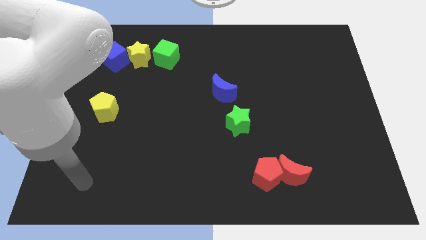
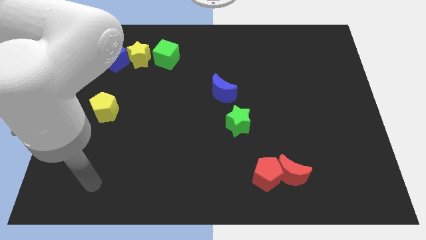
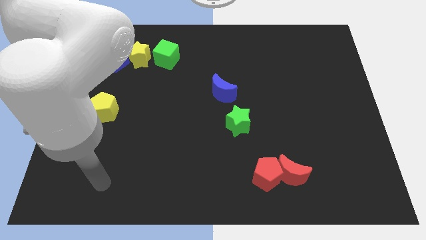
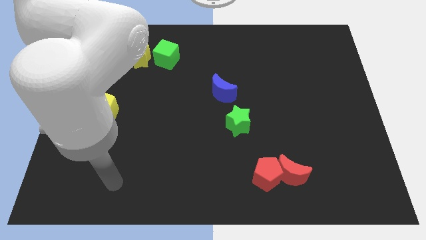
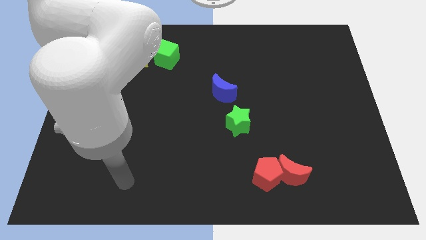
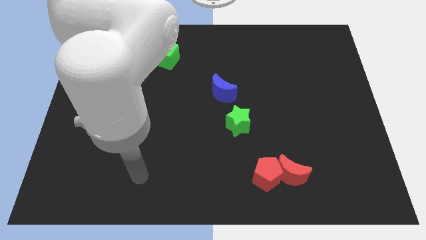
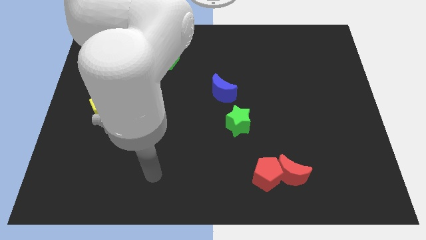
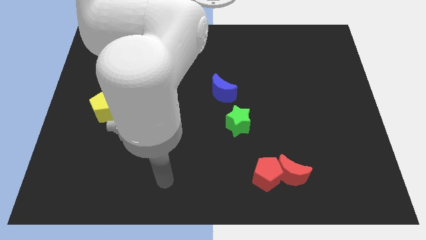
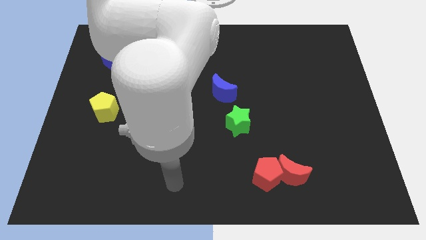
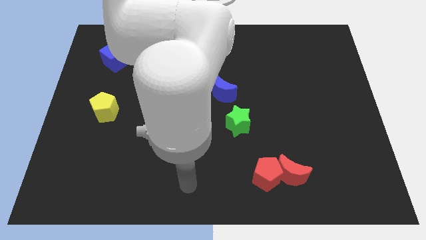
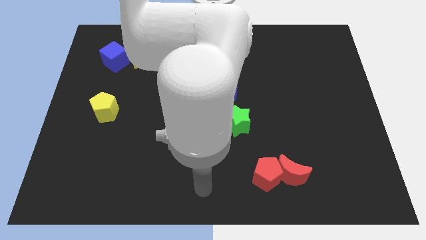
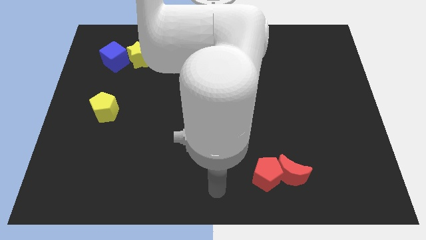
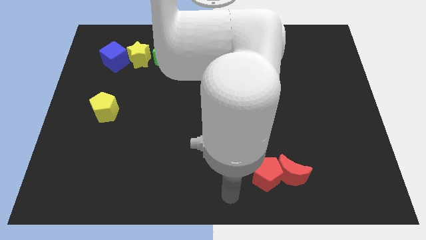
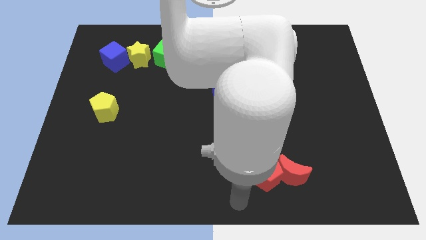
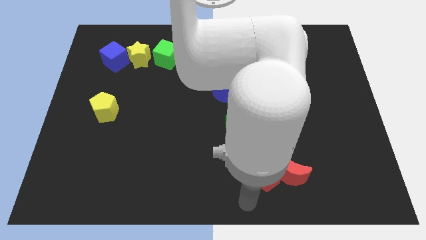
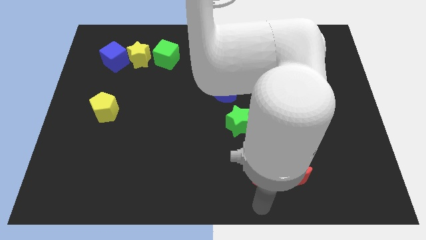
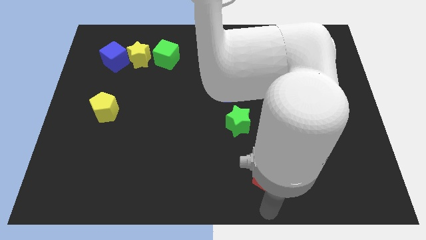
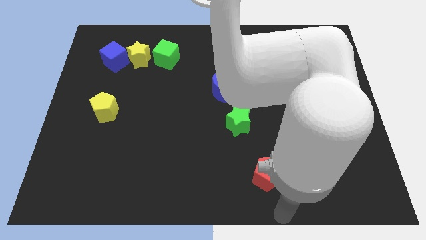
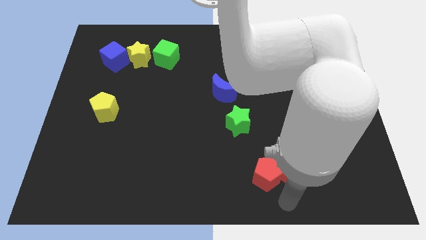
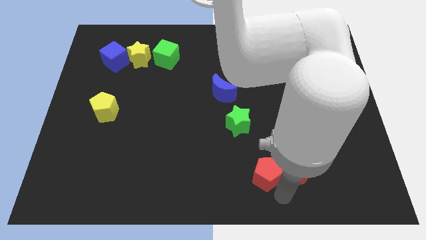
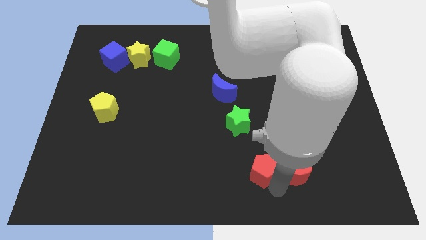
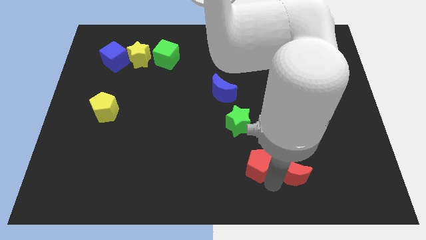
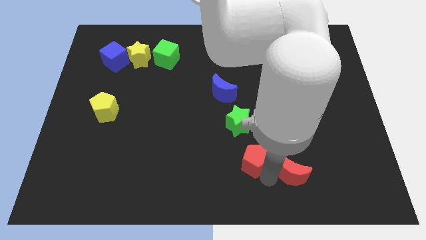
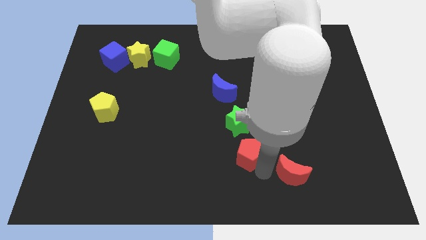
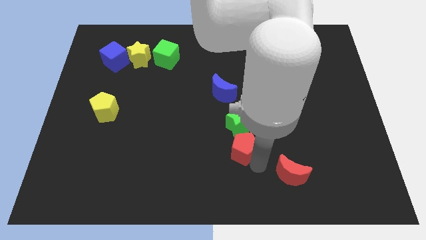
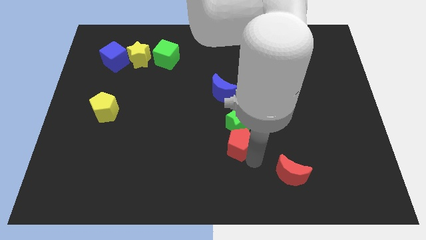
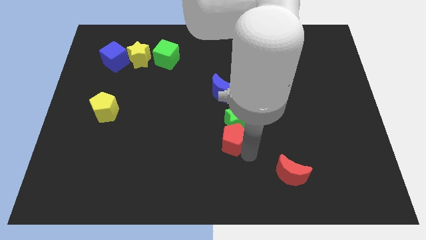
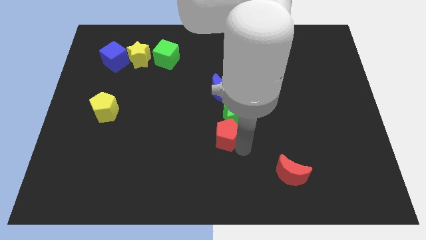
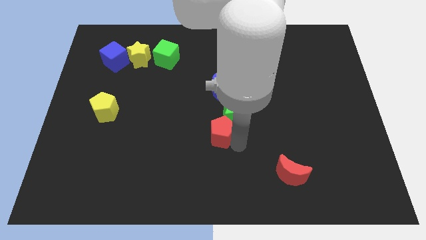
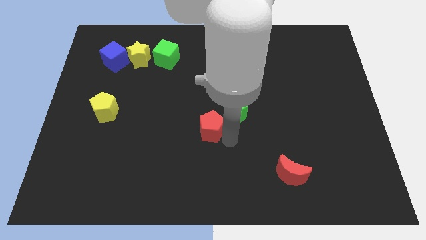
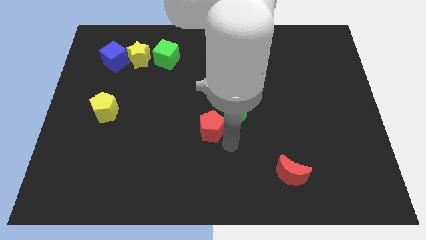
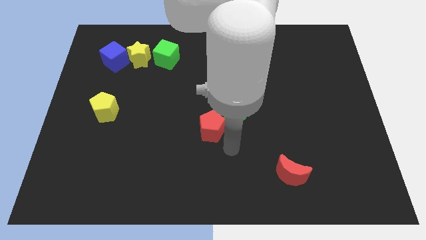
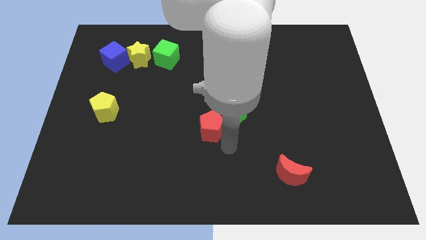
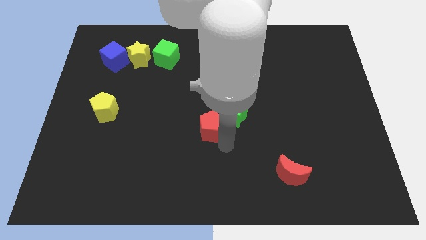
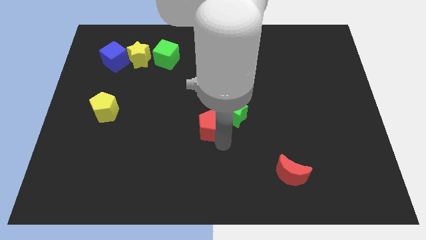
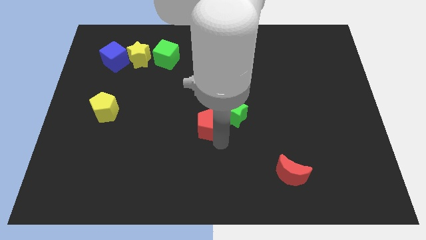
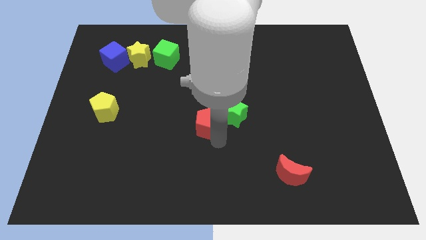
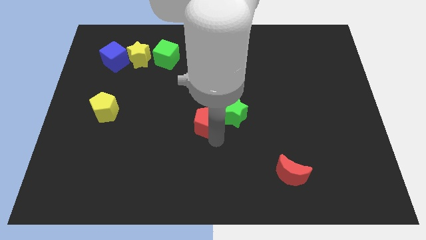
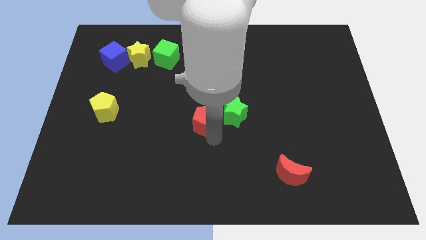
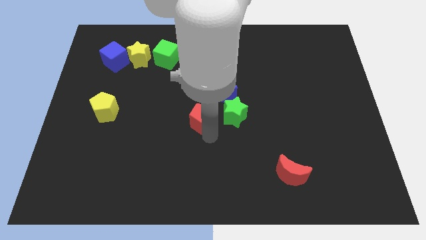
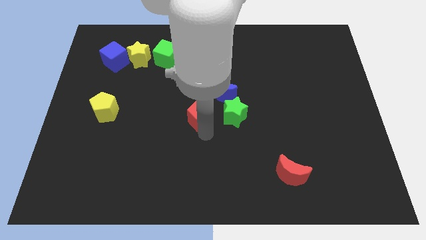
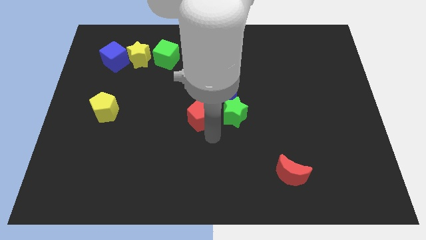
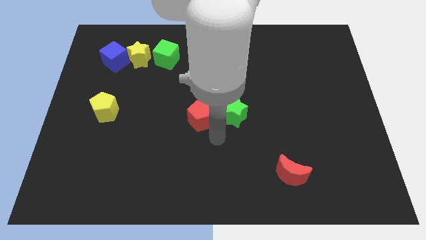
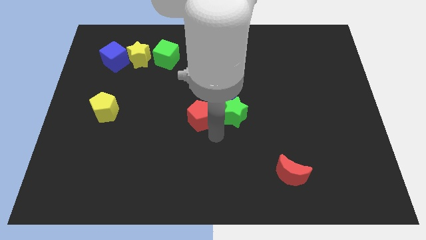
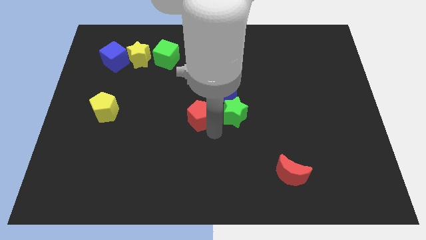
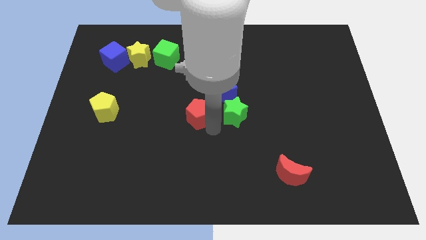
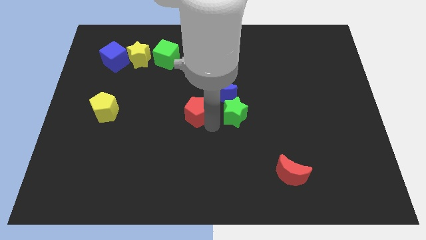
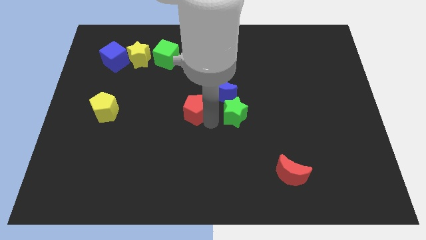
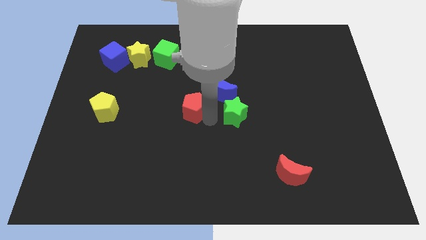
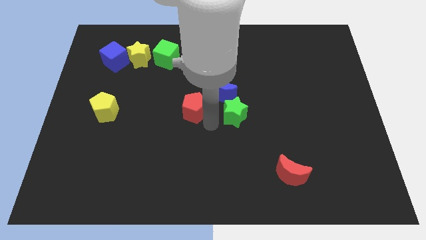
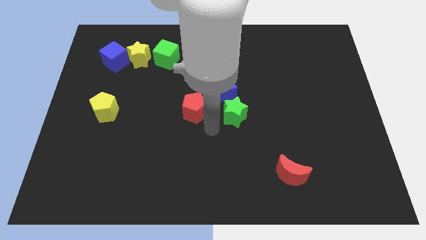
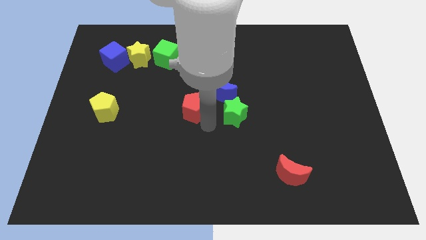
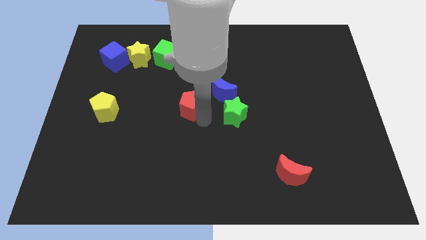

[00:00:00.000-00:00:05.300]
slide the red pentagon to the left of the blue moon

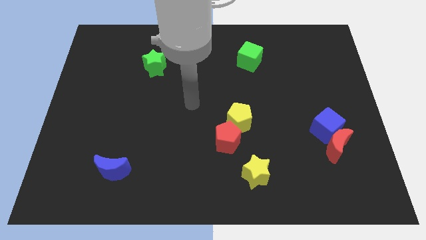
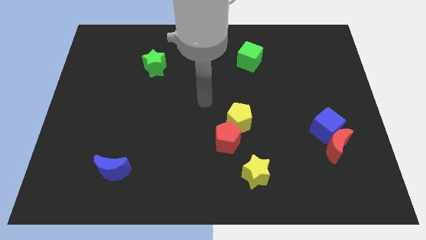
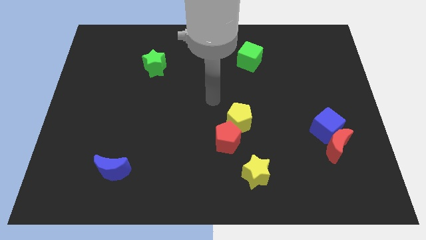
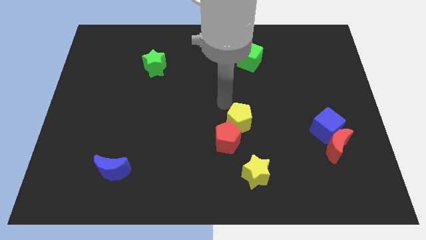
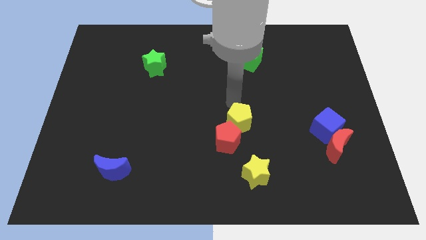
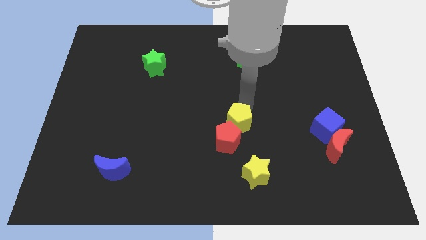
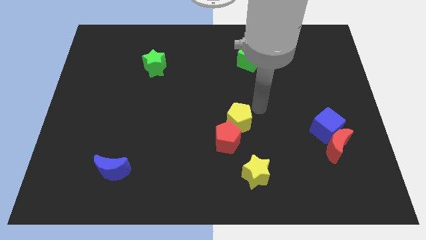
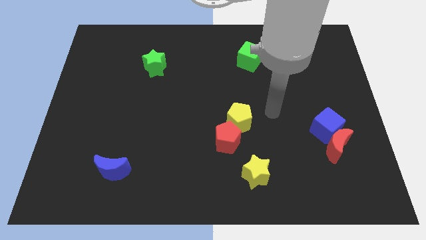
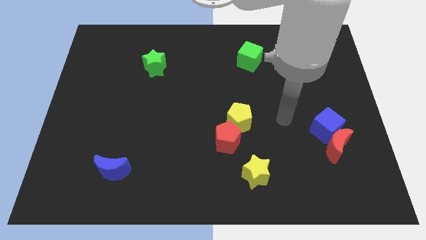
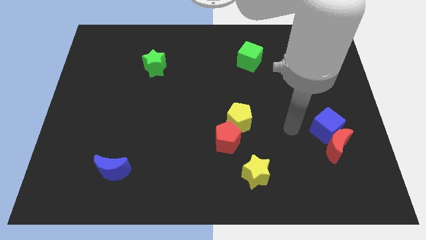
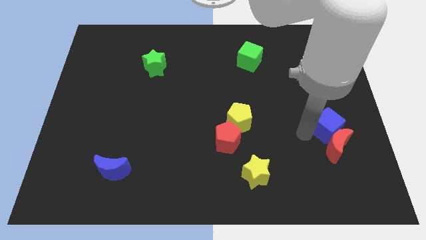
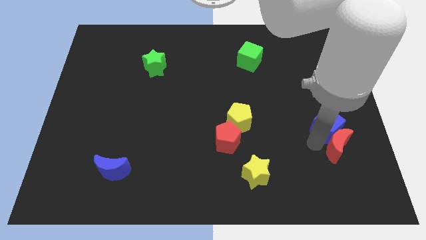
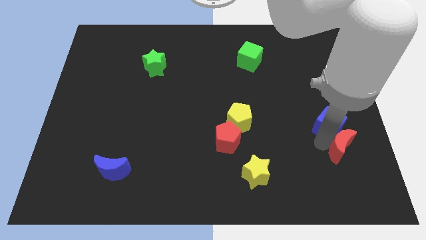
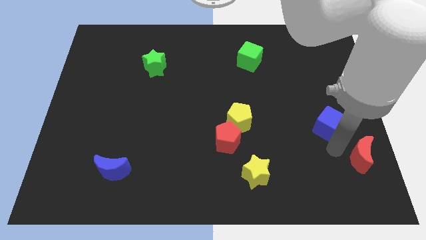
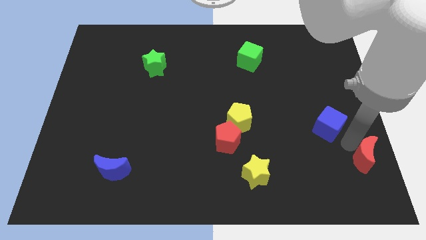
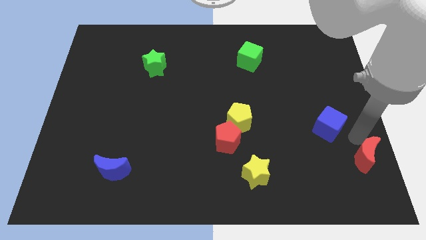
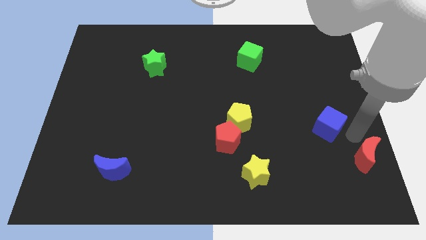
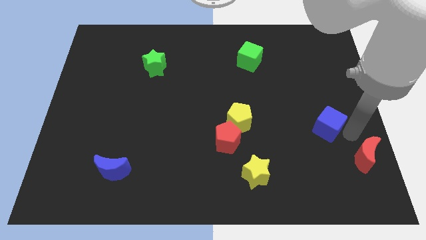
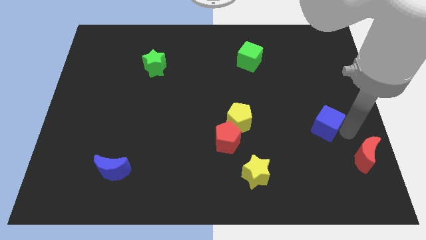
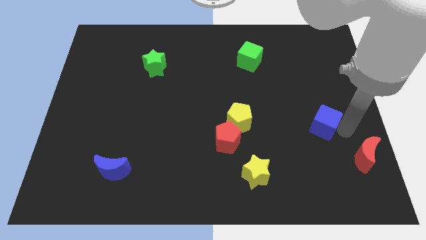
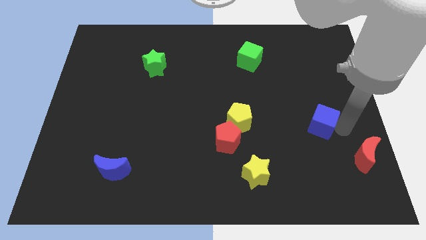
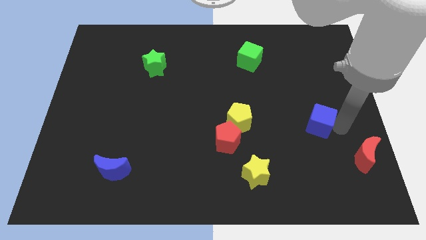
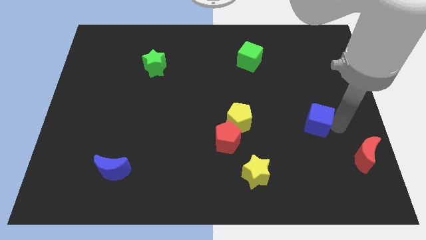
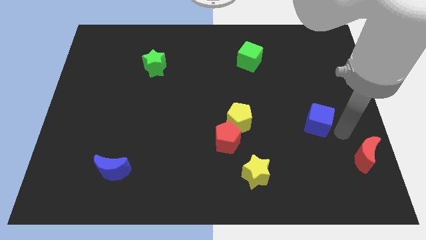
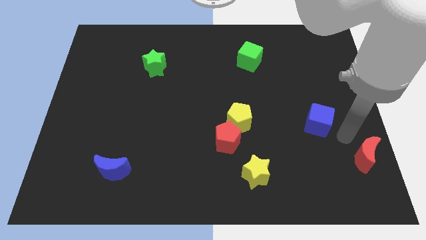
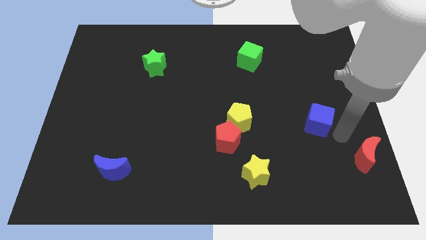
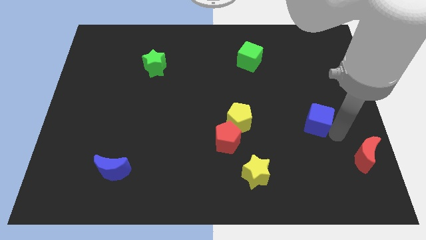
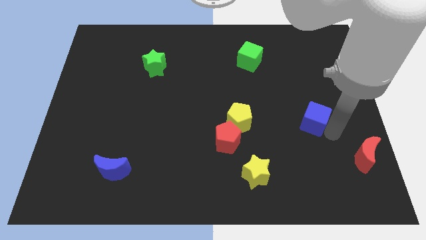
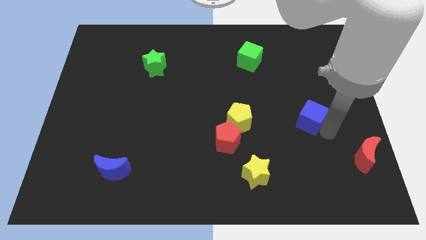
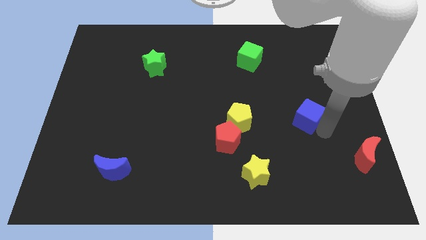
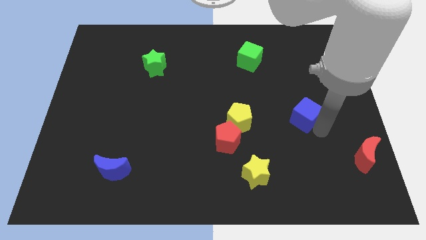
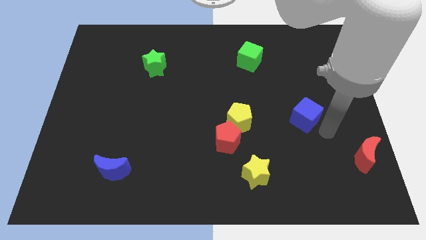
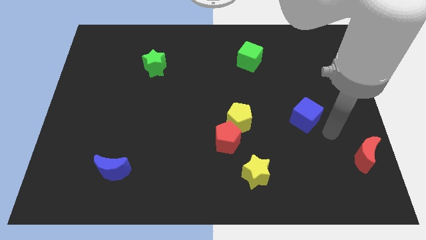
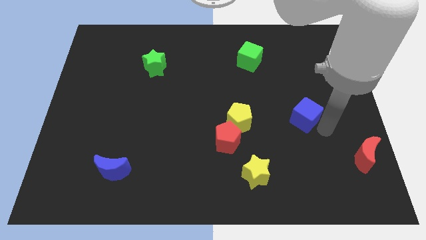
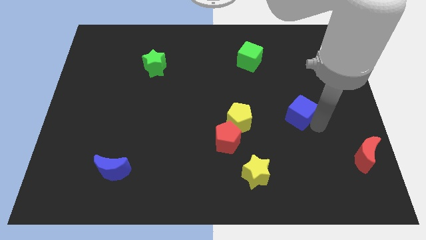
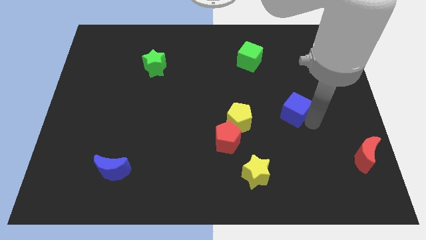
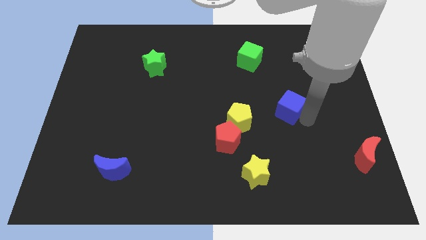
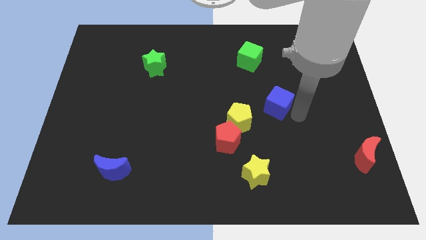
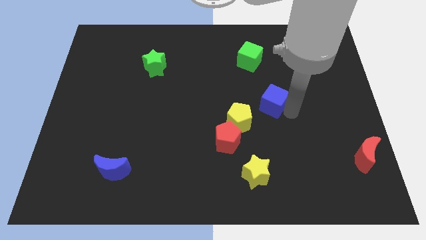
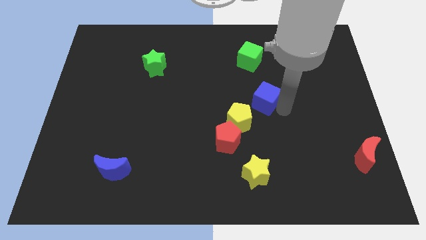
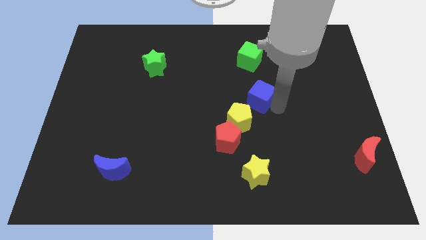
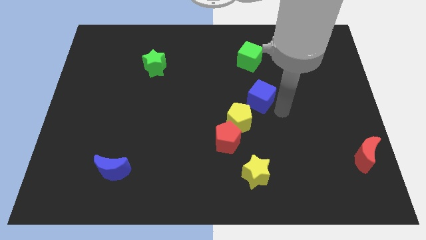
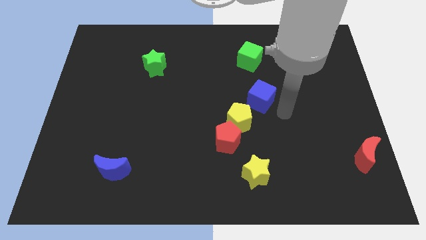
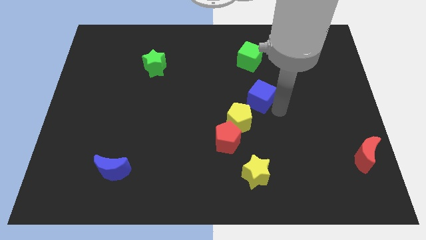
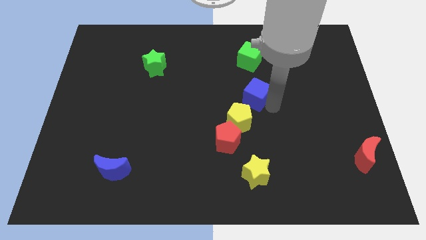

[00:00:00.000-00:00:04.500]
push the blue cube to the top side of the yellow pentagon
